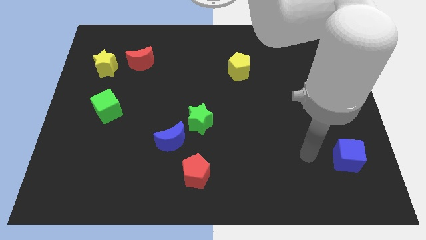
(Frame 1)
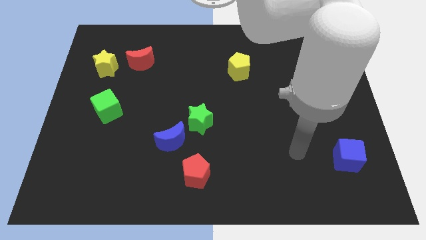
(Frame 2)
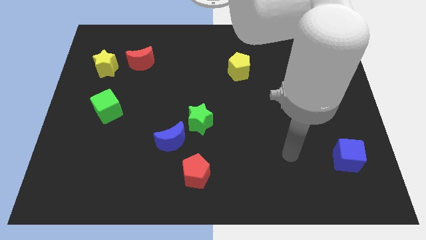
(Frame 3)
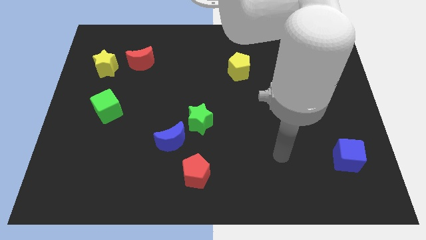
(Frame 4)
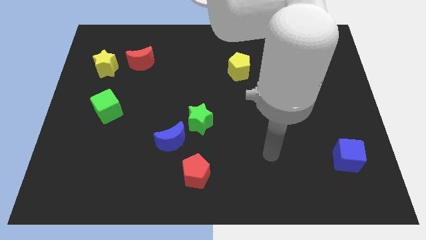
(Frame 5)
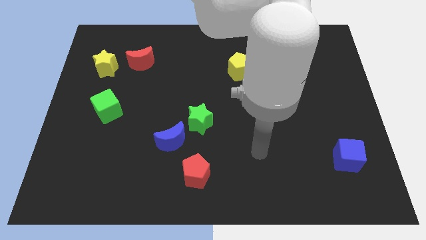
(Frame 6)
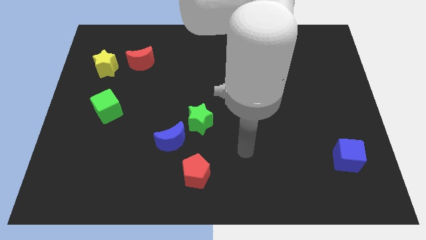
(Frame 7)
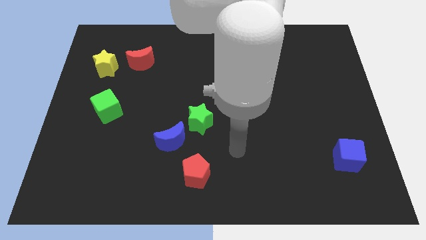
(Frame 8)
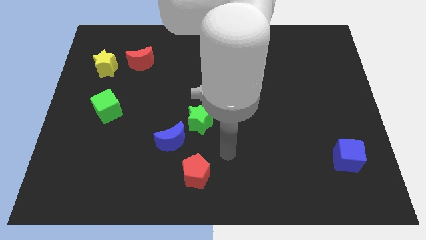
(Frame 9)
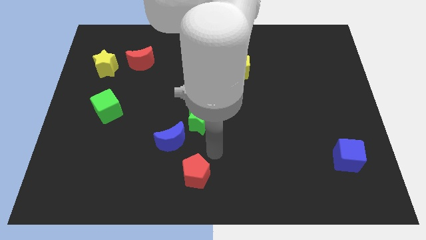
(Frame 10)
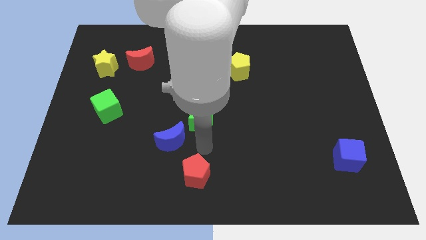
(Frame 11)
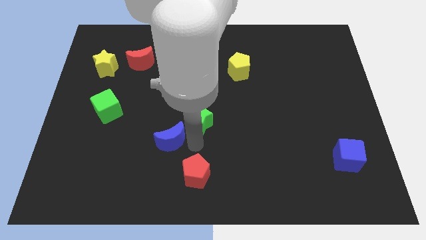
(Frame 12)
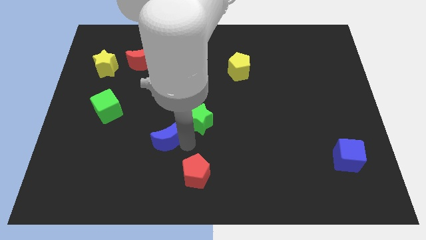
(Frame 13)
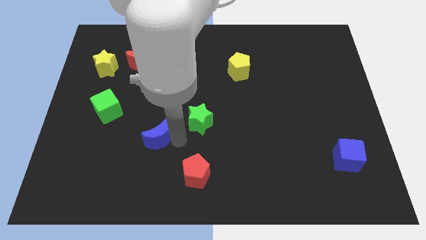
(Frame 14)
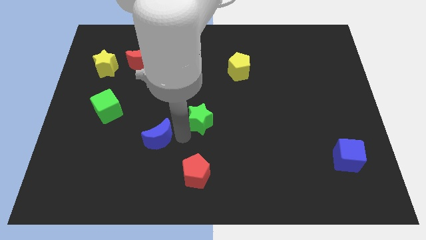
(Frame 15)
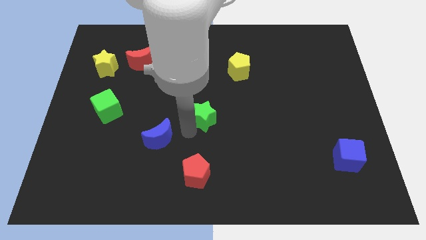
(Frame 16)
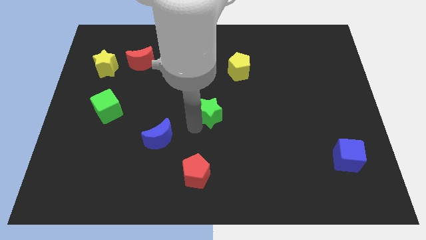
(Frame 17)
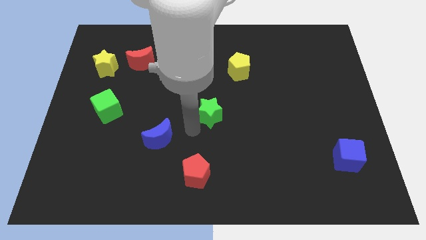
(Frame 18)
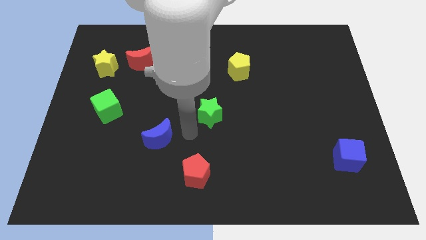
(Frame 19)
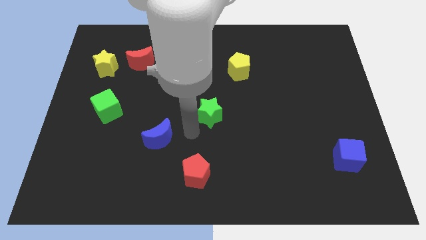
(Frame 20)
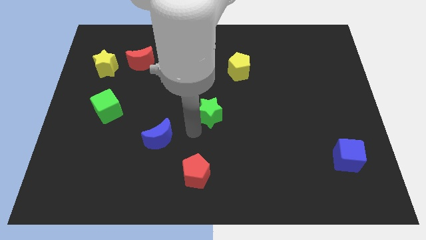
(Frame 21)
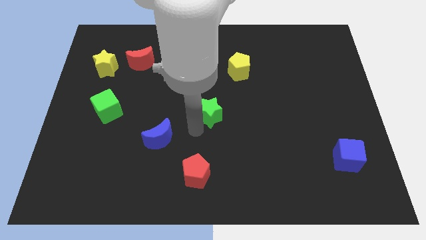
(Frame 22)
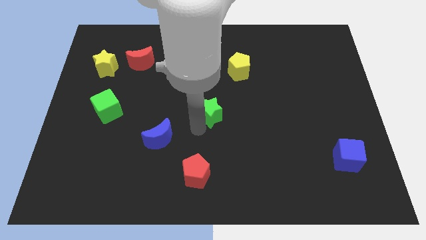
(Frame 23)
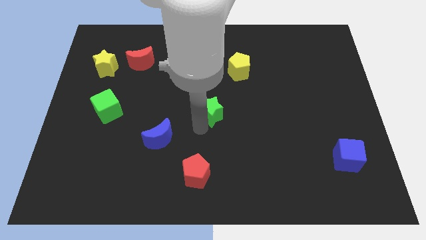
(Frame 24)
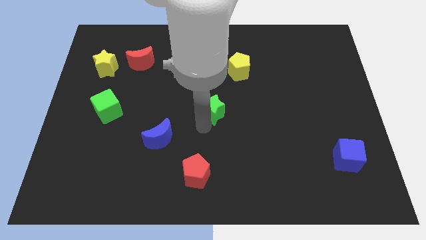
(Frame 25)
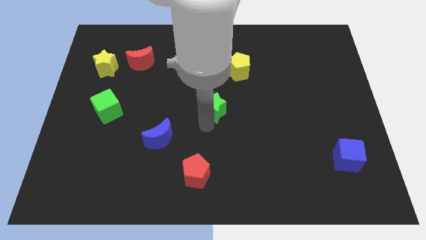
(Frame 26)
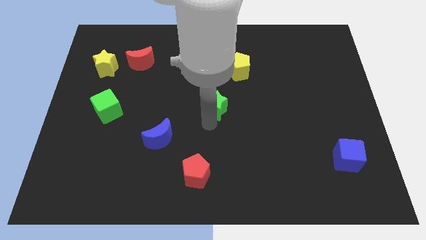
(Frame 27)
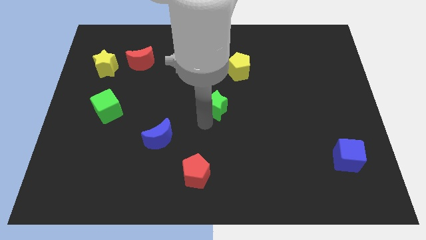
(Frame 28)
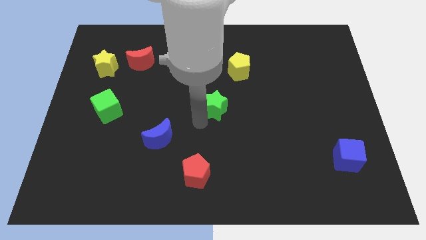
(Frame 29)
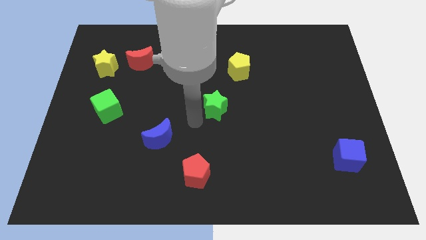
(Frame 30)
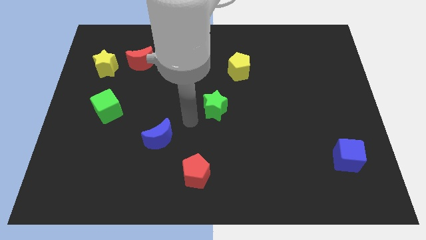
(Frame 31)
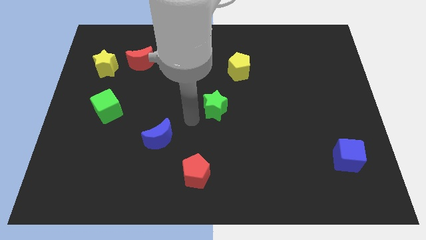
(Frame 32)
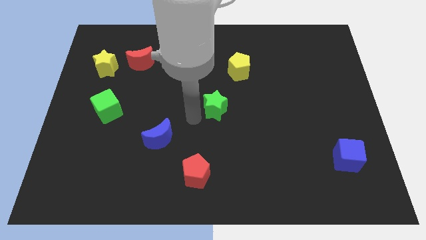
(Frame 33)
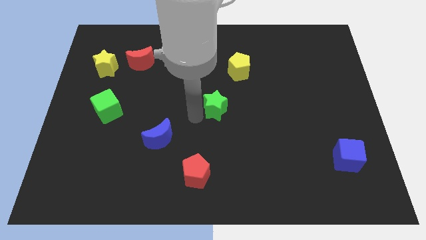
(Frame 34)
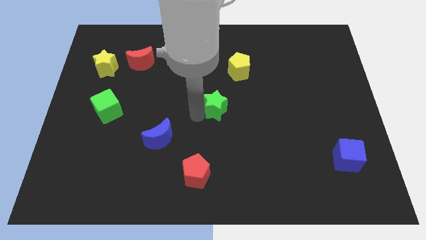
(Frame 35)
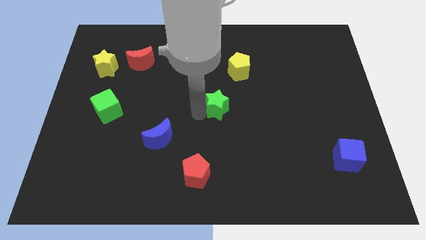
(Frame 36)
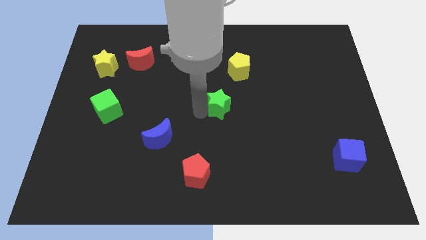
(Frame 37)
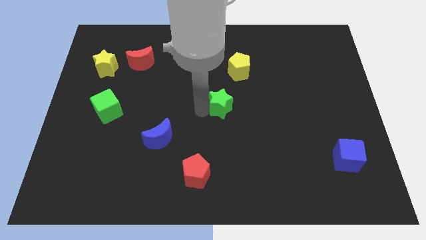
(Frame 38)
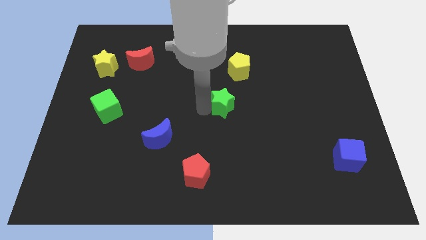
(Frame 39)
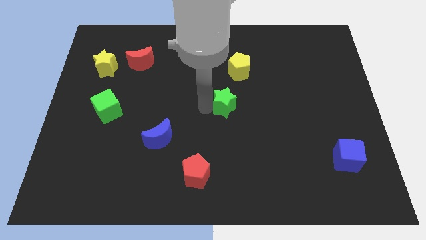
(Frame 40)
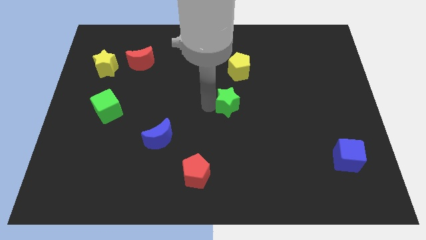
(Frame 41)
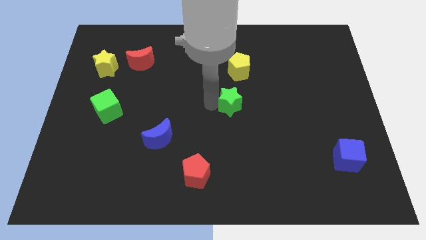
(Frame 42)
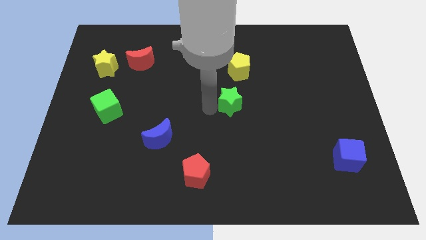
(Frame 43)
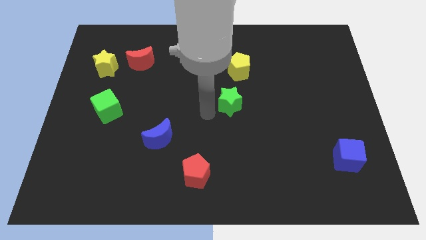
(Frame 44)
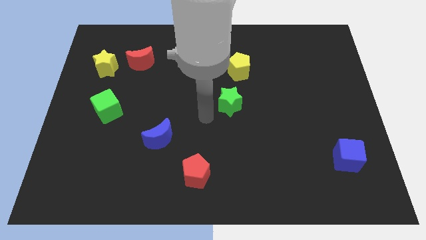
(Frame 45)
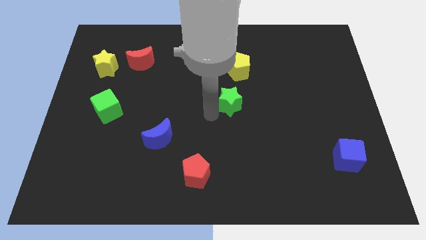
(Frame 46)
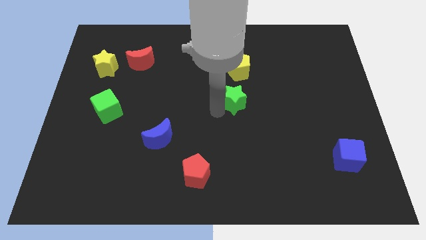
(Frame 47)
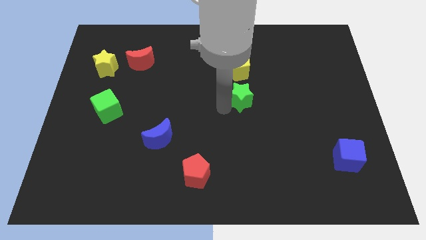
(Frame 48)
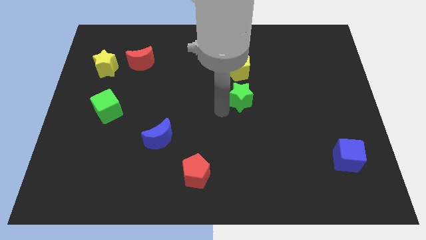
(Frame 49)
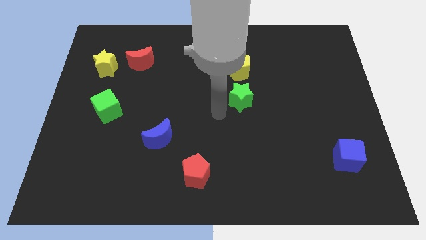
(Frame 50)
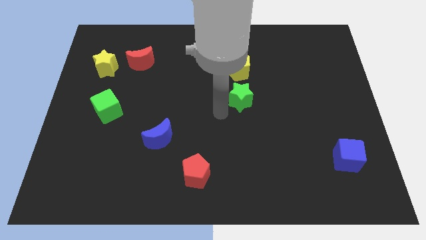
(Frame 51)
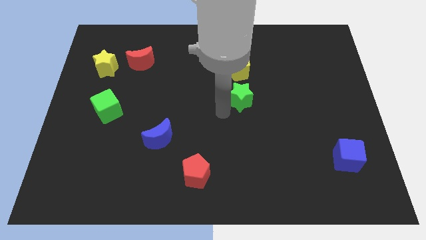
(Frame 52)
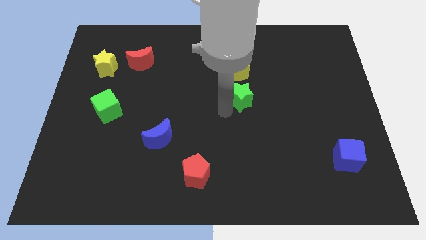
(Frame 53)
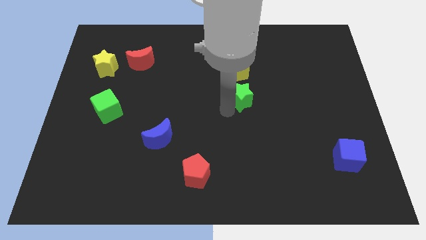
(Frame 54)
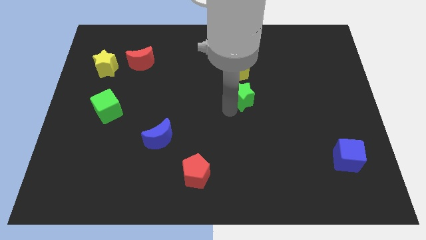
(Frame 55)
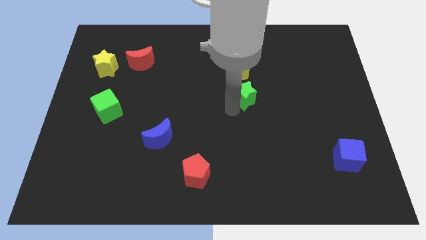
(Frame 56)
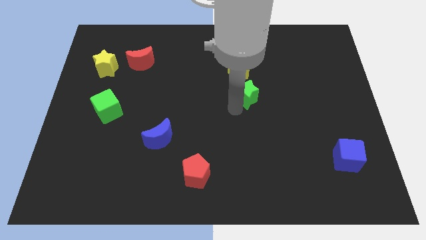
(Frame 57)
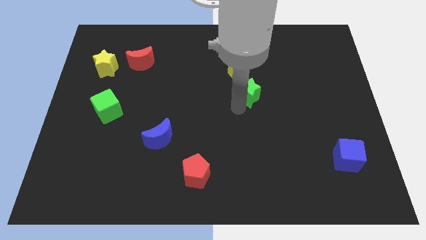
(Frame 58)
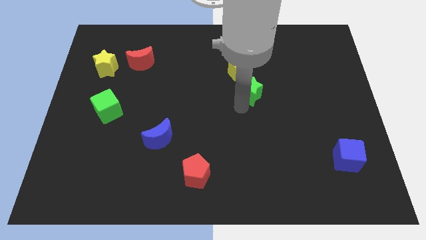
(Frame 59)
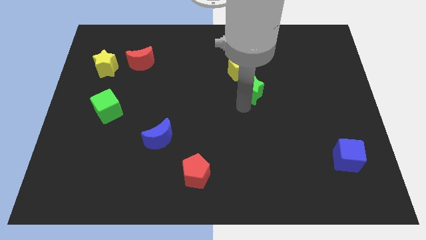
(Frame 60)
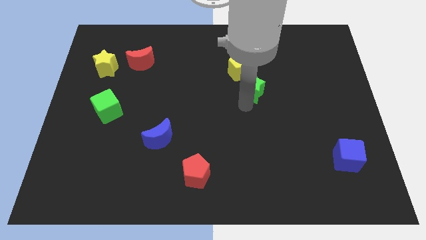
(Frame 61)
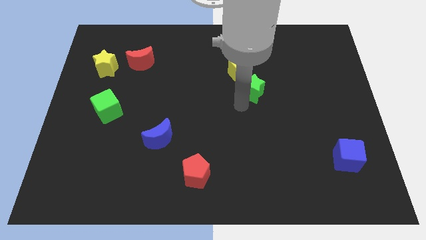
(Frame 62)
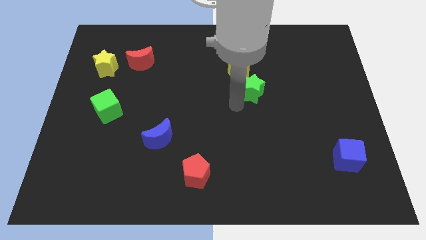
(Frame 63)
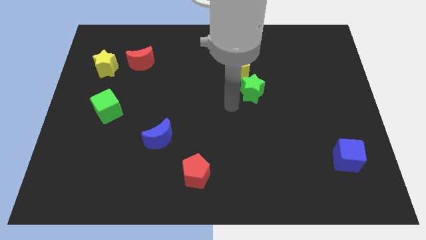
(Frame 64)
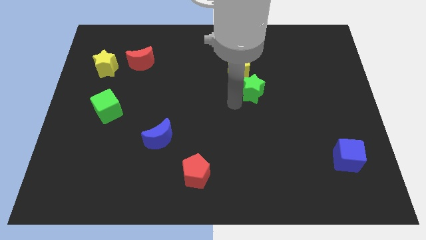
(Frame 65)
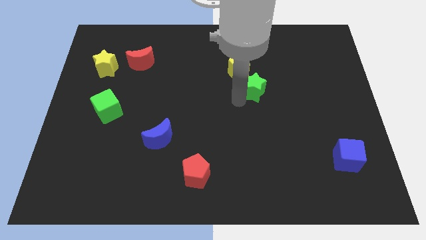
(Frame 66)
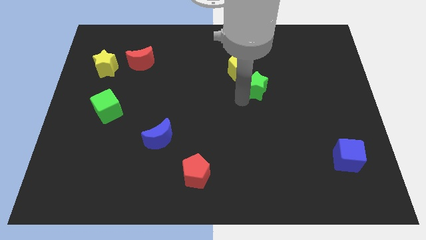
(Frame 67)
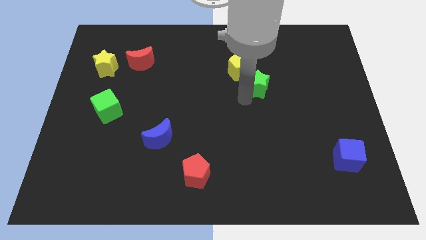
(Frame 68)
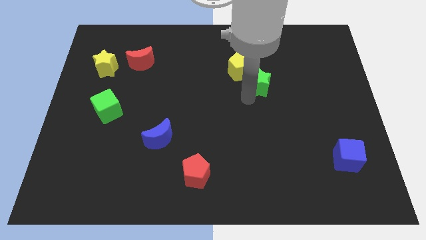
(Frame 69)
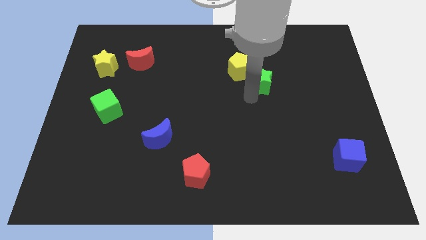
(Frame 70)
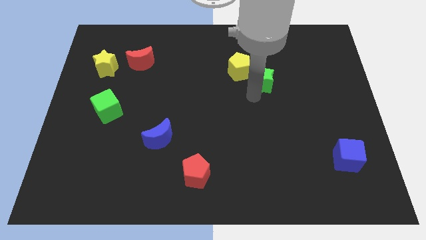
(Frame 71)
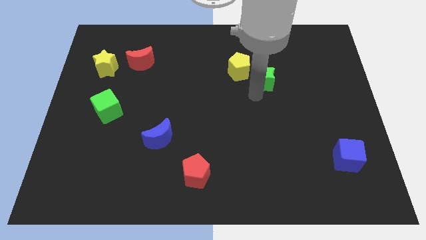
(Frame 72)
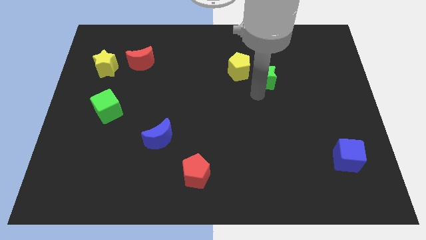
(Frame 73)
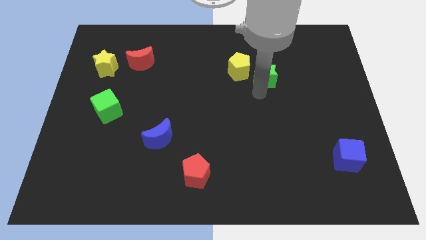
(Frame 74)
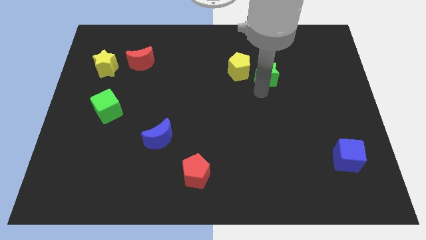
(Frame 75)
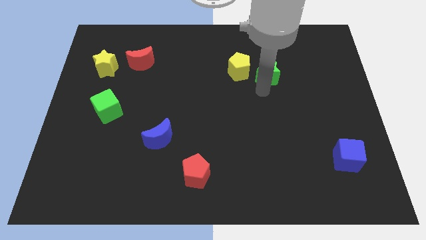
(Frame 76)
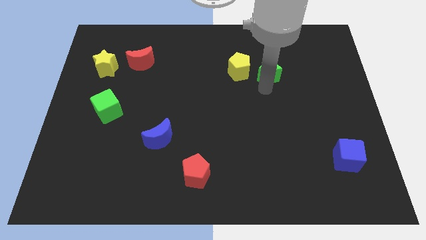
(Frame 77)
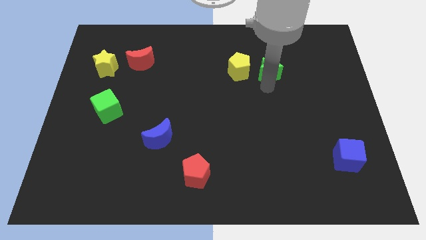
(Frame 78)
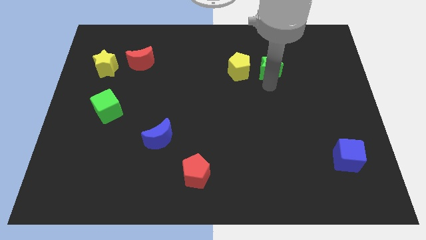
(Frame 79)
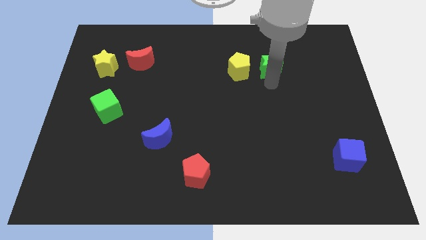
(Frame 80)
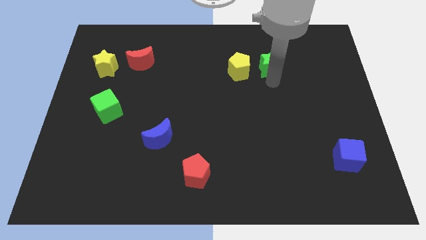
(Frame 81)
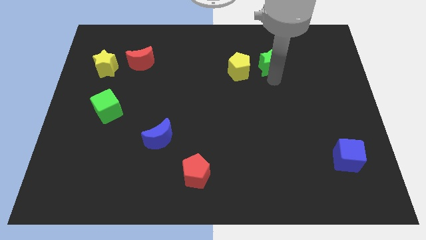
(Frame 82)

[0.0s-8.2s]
put the green star to the top right of the yellow pentagon
